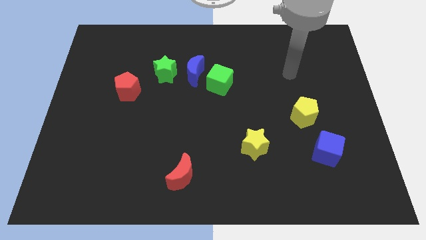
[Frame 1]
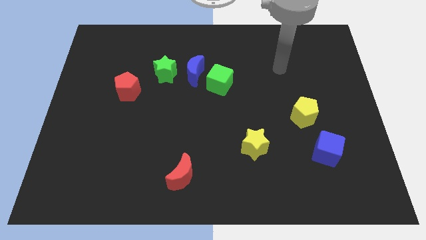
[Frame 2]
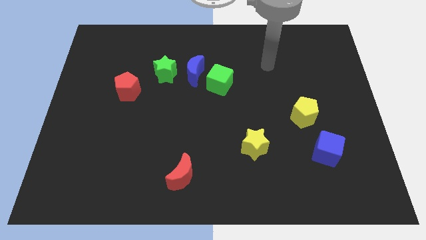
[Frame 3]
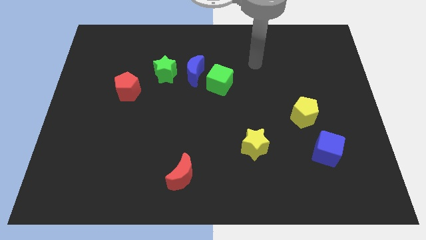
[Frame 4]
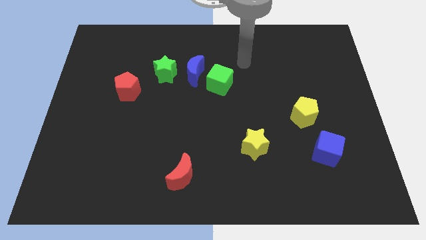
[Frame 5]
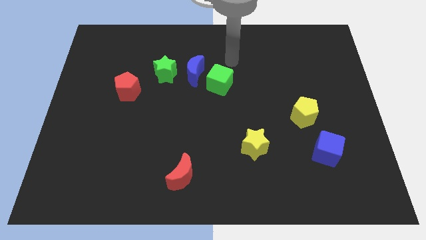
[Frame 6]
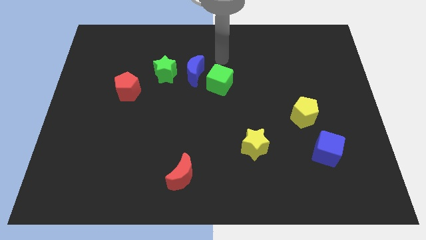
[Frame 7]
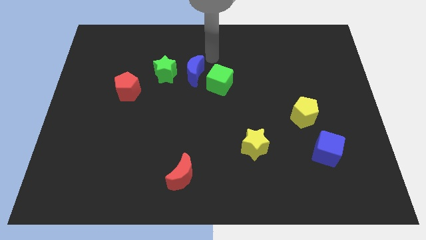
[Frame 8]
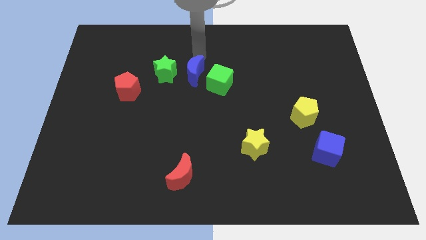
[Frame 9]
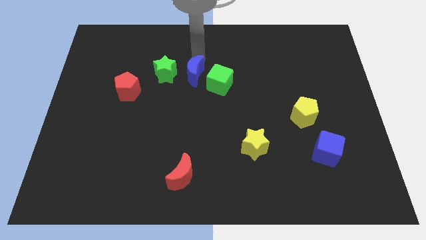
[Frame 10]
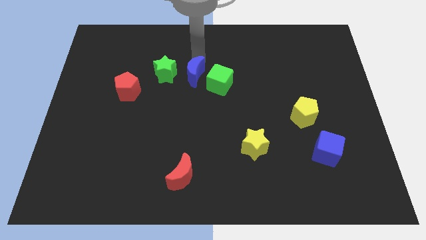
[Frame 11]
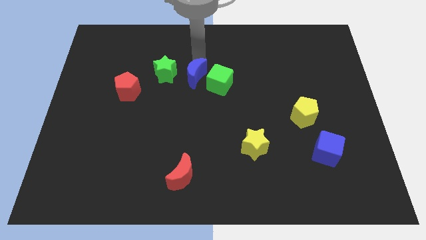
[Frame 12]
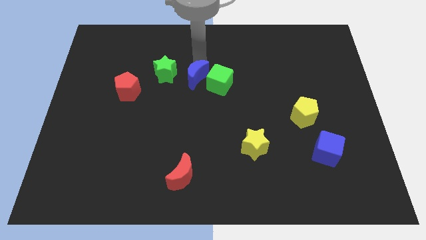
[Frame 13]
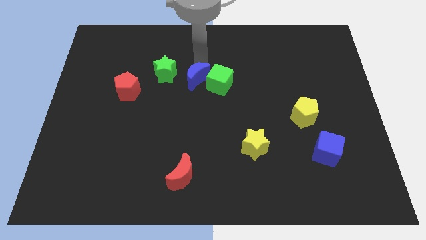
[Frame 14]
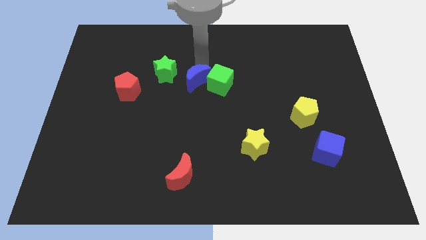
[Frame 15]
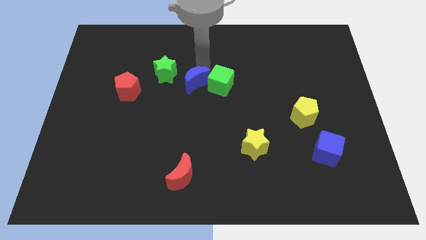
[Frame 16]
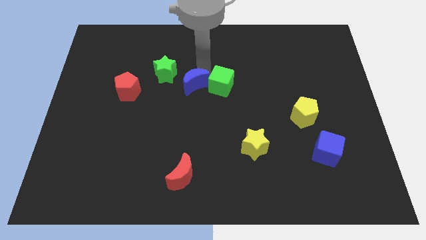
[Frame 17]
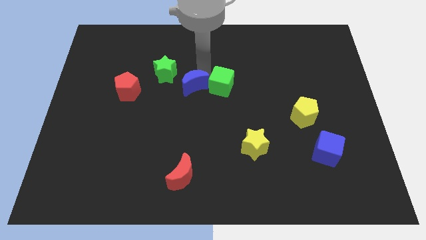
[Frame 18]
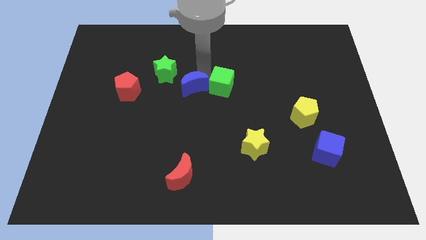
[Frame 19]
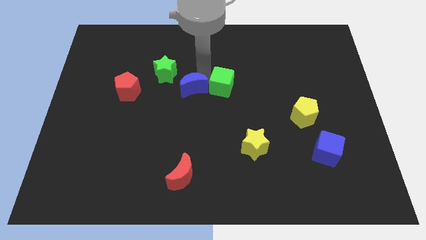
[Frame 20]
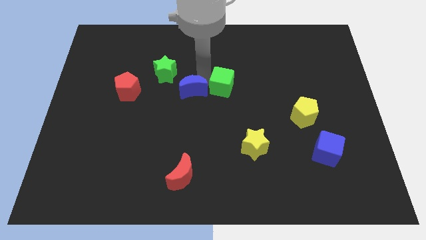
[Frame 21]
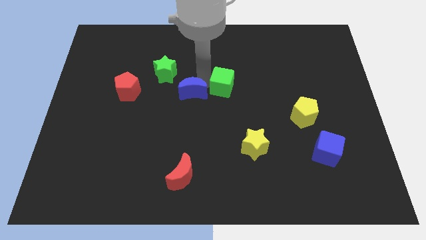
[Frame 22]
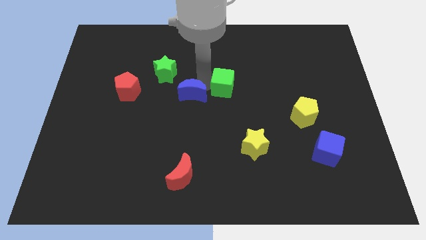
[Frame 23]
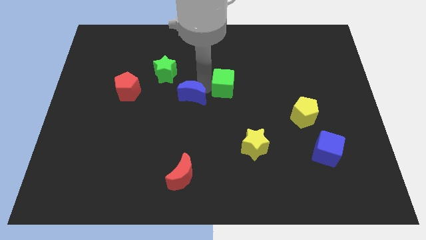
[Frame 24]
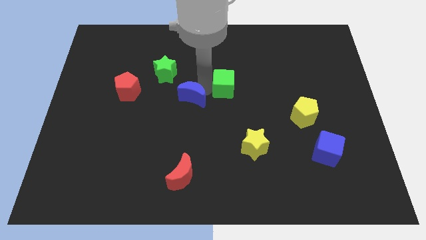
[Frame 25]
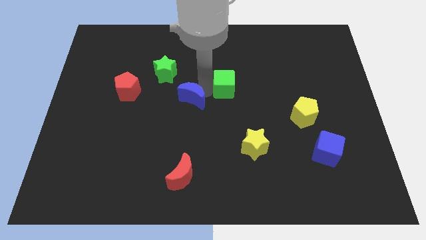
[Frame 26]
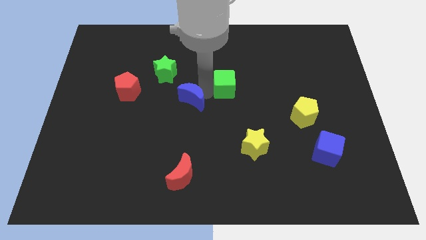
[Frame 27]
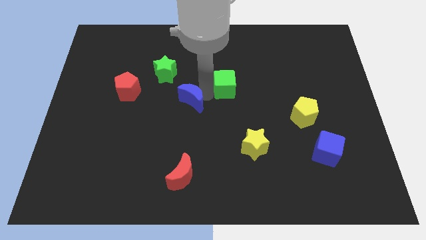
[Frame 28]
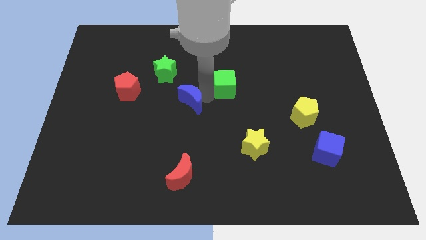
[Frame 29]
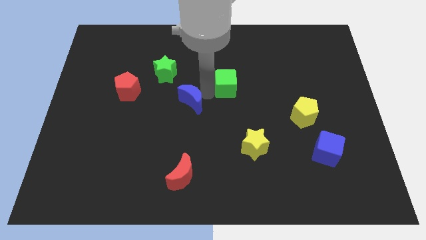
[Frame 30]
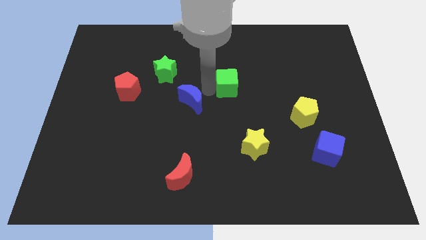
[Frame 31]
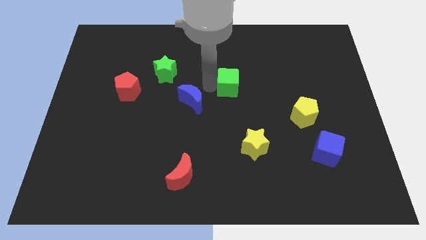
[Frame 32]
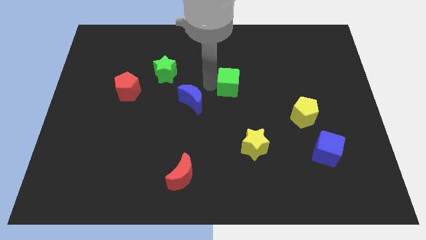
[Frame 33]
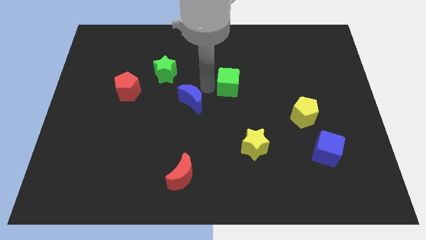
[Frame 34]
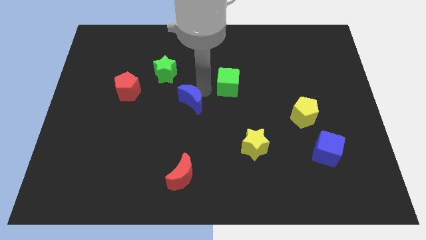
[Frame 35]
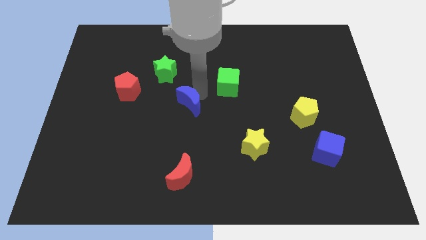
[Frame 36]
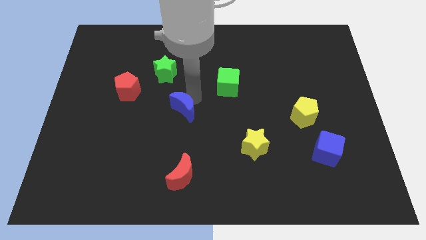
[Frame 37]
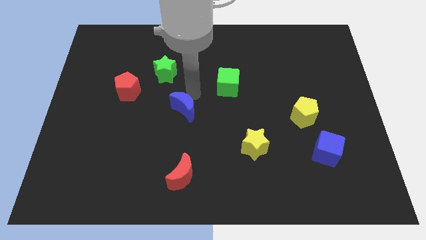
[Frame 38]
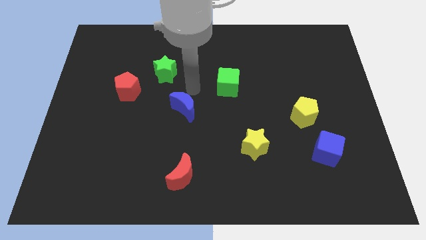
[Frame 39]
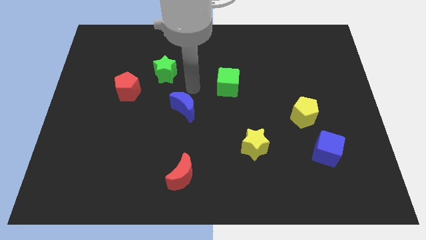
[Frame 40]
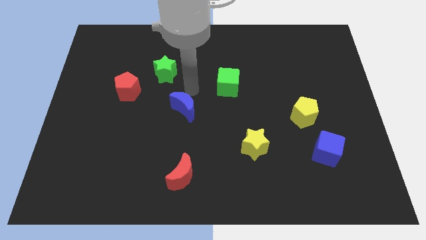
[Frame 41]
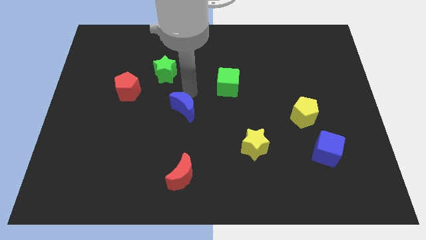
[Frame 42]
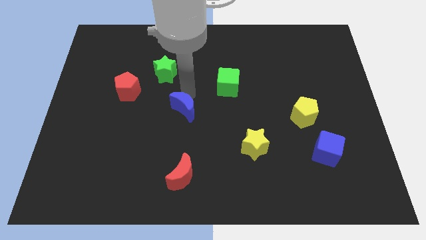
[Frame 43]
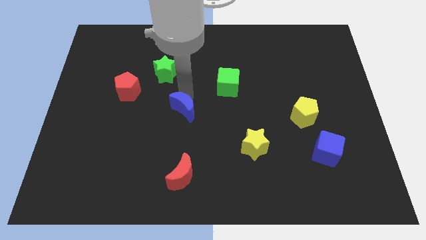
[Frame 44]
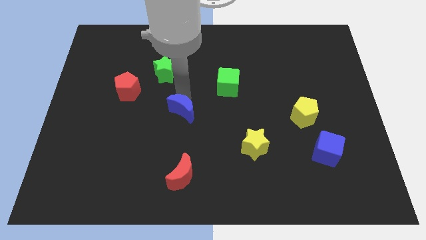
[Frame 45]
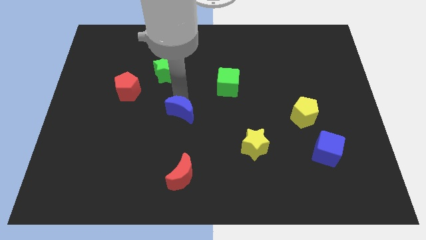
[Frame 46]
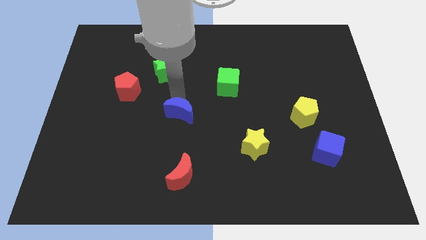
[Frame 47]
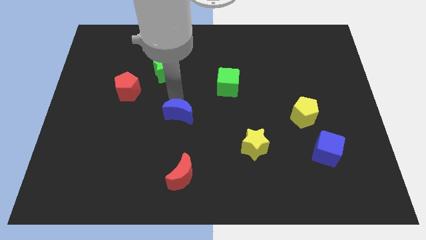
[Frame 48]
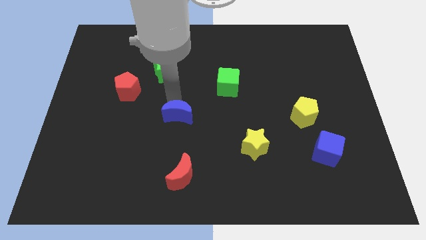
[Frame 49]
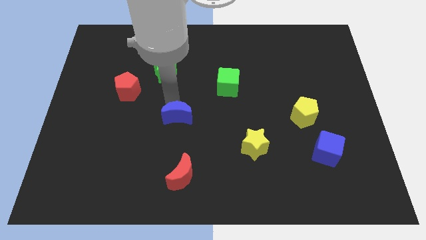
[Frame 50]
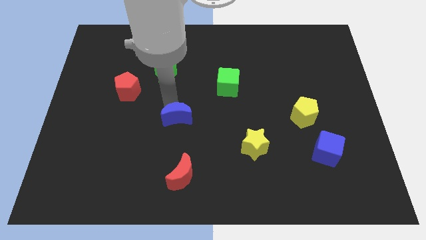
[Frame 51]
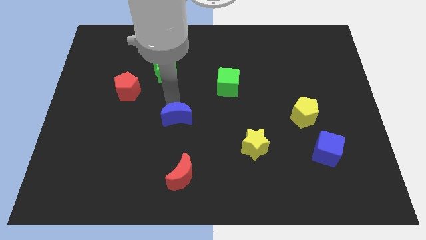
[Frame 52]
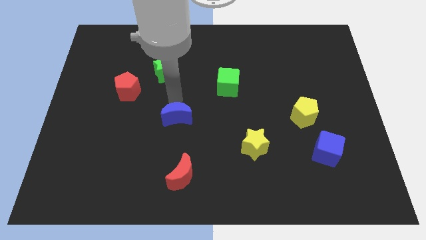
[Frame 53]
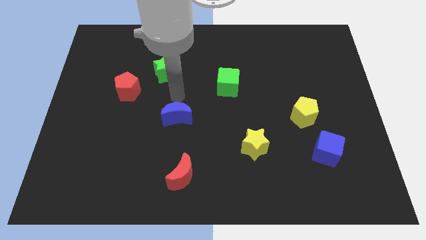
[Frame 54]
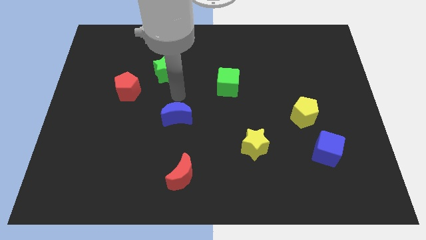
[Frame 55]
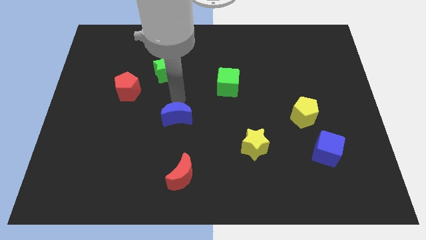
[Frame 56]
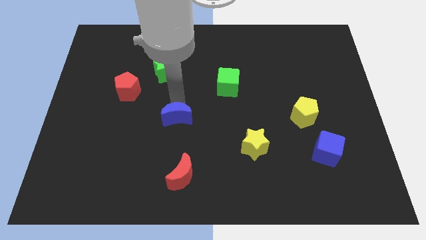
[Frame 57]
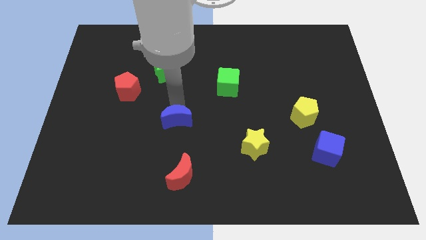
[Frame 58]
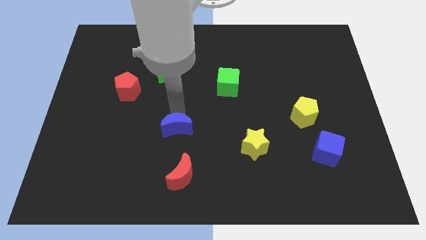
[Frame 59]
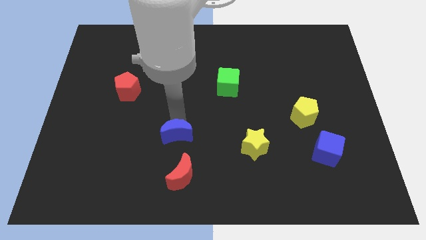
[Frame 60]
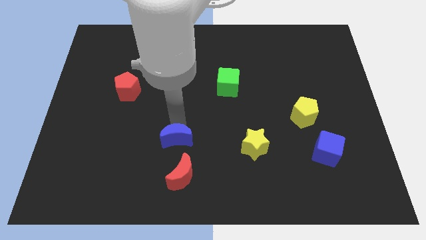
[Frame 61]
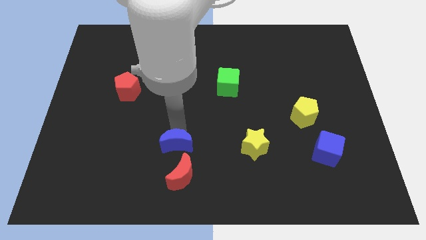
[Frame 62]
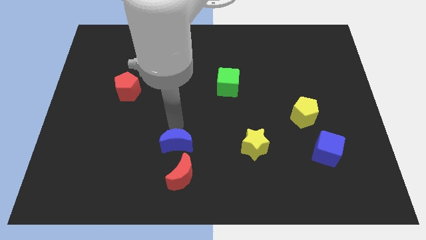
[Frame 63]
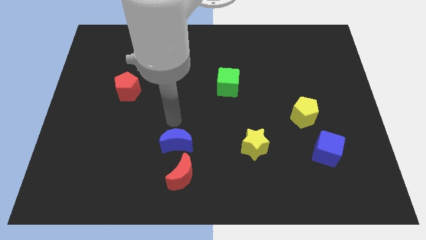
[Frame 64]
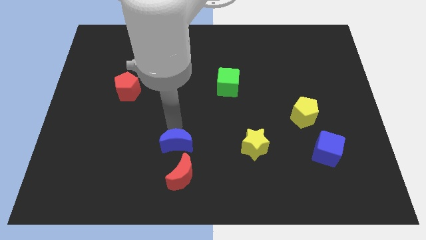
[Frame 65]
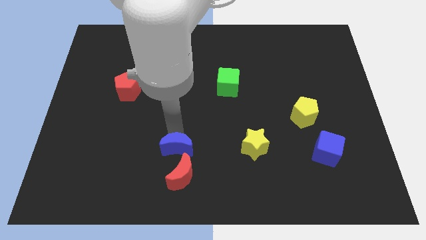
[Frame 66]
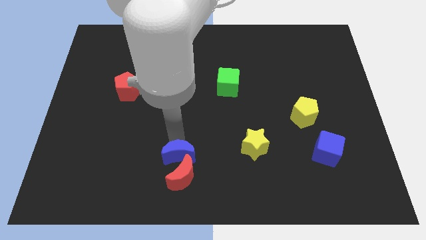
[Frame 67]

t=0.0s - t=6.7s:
slide the blue moon towards the red moon

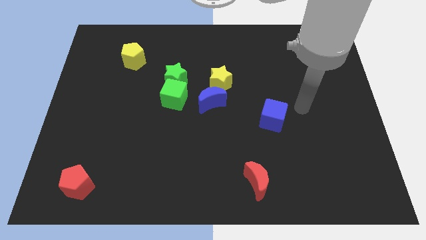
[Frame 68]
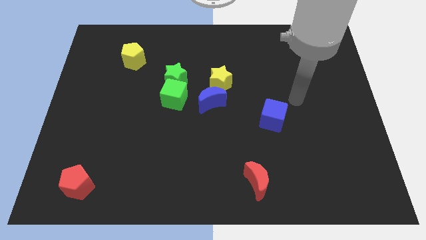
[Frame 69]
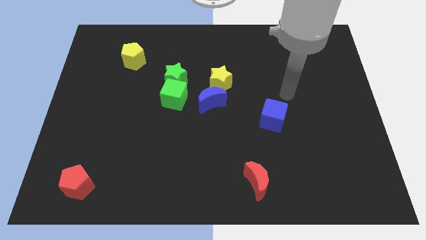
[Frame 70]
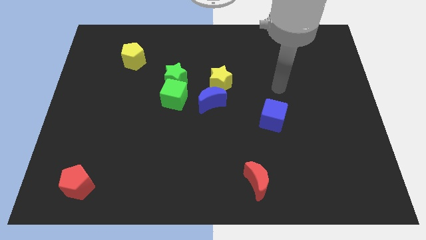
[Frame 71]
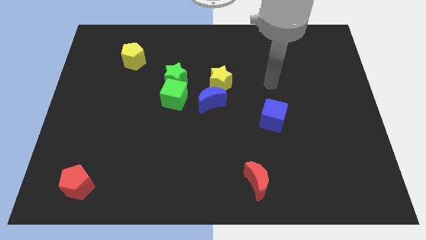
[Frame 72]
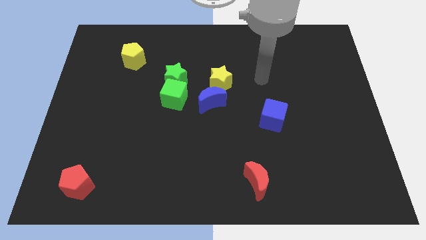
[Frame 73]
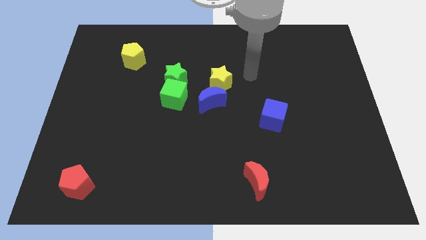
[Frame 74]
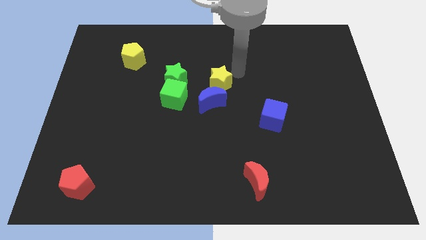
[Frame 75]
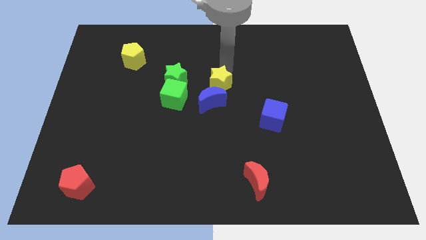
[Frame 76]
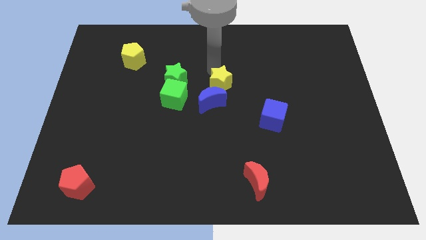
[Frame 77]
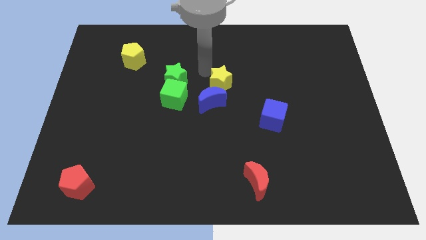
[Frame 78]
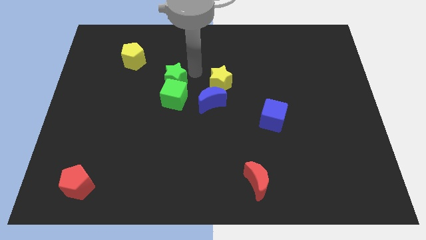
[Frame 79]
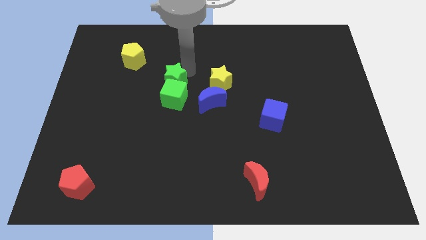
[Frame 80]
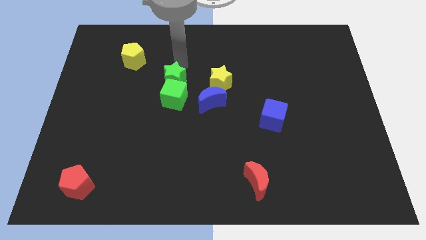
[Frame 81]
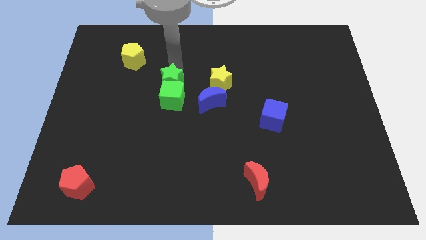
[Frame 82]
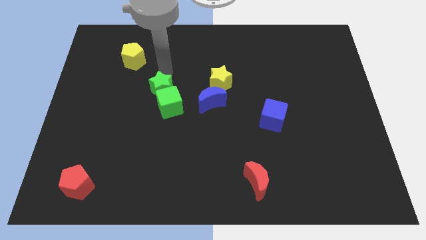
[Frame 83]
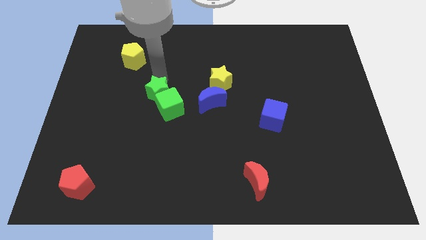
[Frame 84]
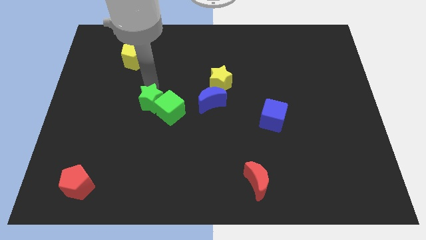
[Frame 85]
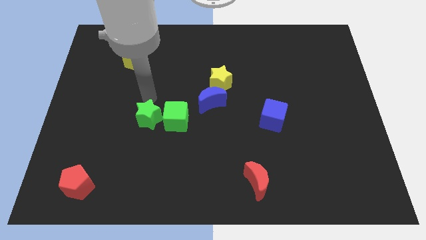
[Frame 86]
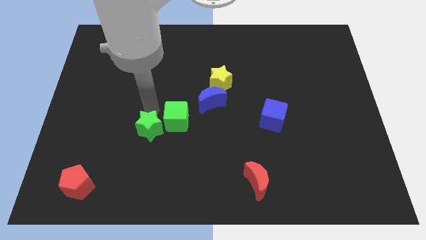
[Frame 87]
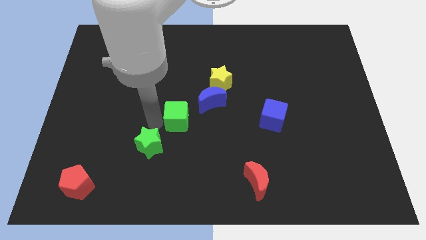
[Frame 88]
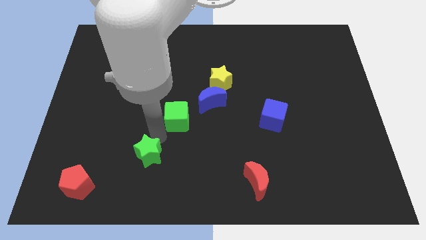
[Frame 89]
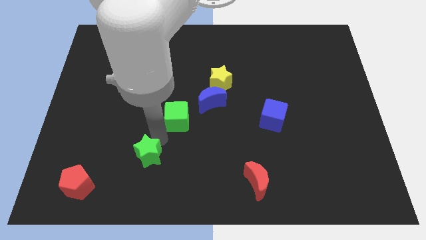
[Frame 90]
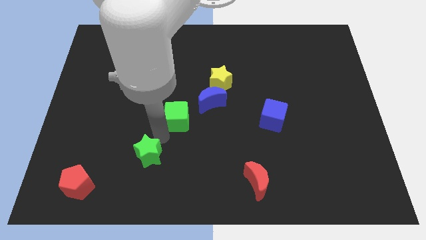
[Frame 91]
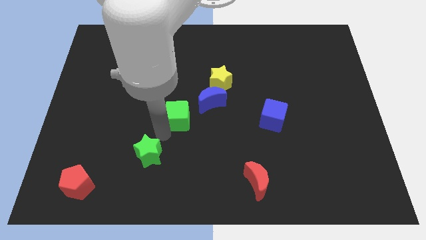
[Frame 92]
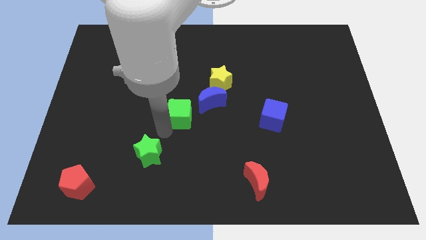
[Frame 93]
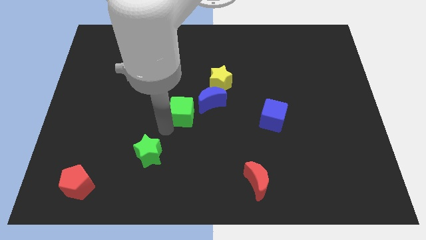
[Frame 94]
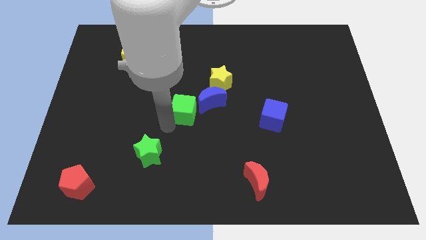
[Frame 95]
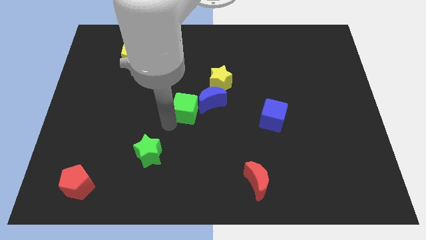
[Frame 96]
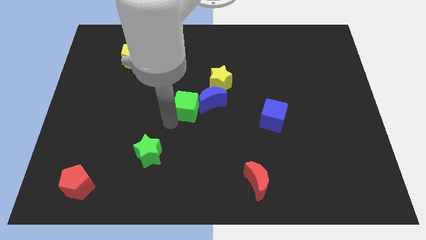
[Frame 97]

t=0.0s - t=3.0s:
move the green cube close to the blue moon
